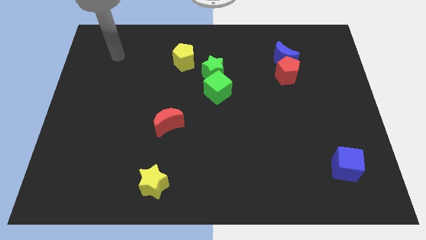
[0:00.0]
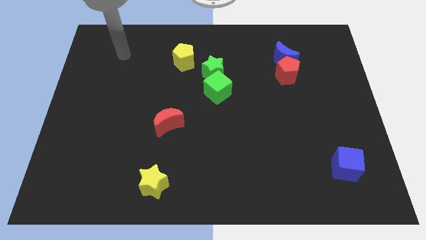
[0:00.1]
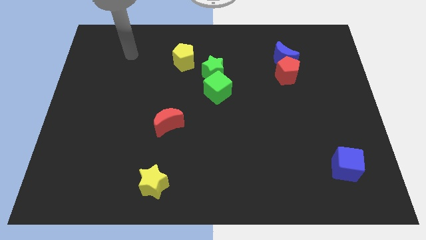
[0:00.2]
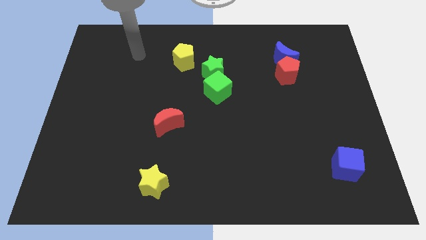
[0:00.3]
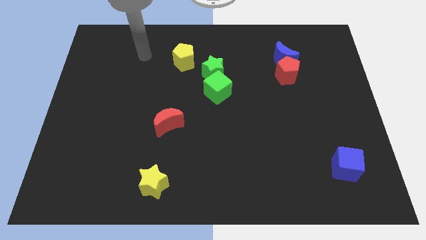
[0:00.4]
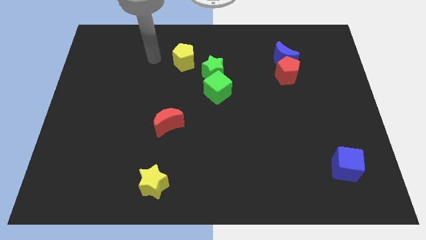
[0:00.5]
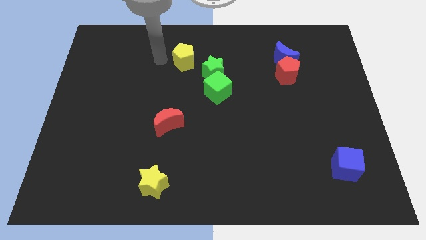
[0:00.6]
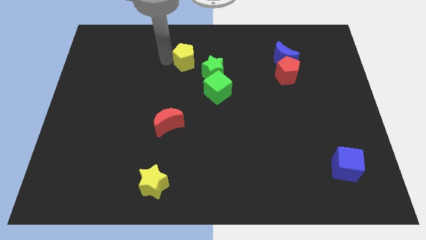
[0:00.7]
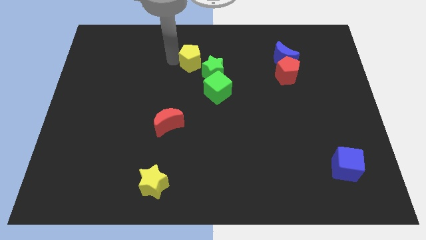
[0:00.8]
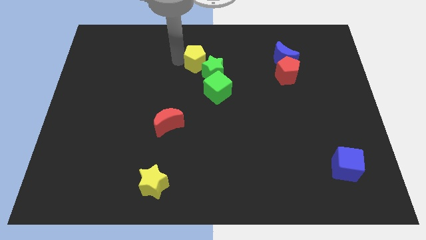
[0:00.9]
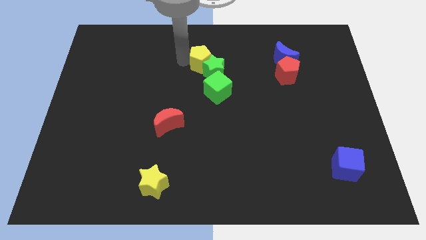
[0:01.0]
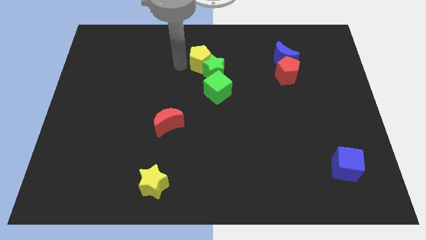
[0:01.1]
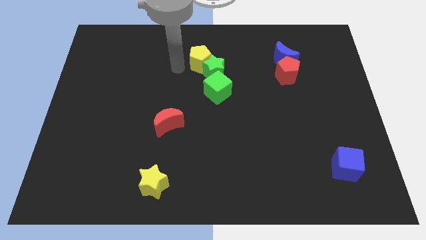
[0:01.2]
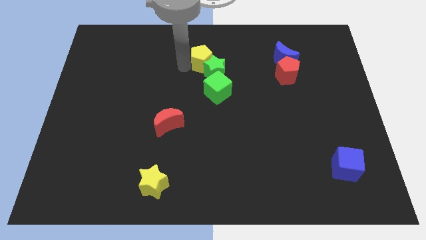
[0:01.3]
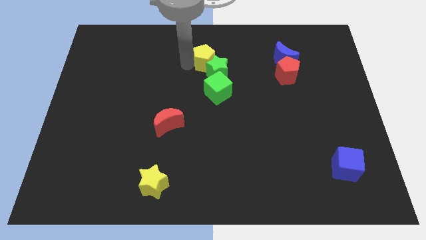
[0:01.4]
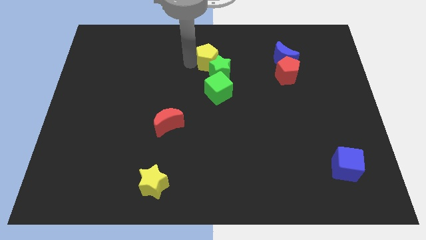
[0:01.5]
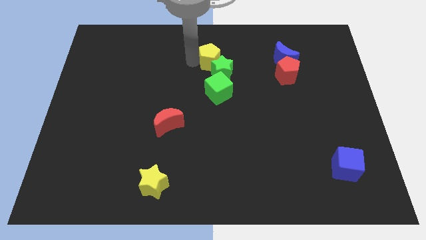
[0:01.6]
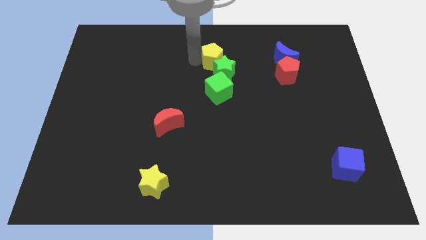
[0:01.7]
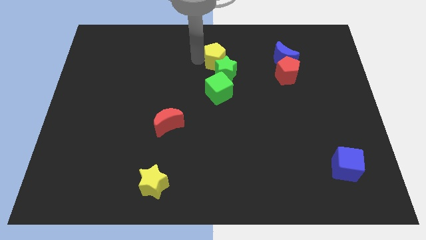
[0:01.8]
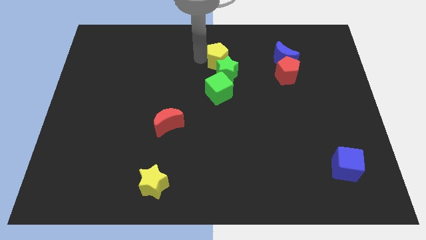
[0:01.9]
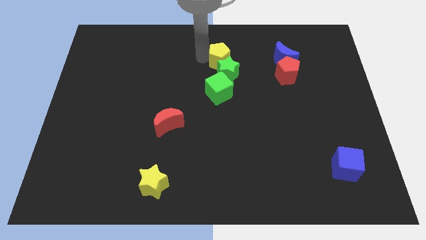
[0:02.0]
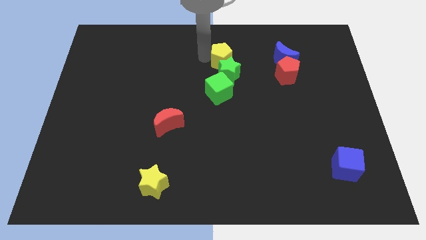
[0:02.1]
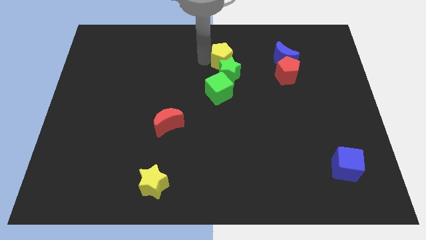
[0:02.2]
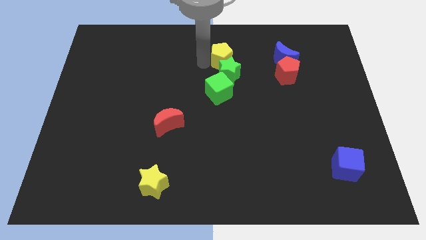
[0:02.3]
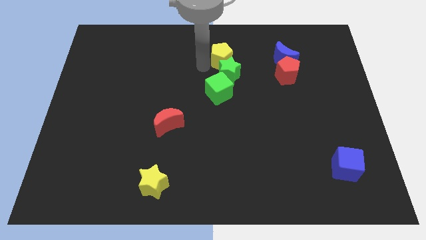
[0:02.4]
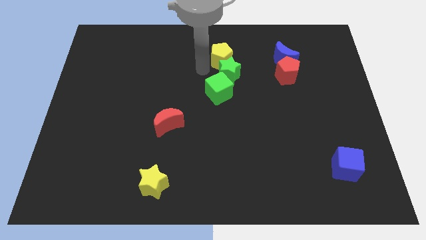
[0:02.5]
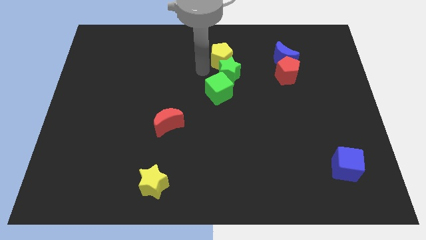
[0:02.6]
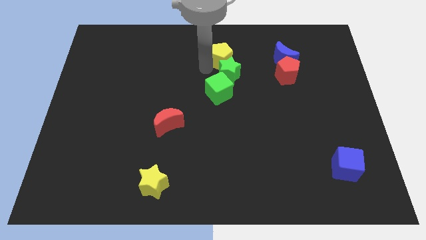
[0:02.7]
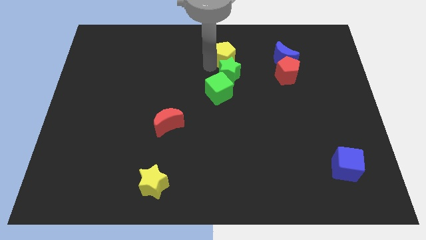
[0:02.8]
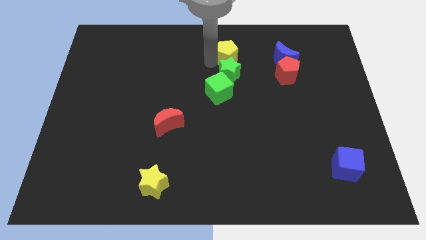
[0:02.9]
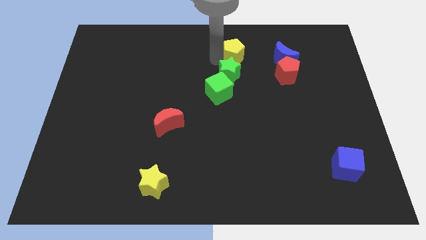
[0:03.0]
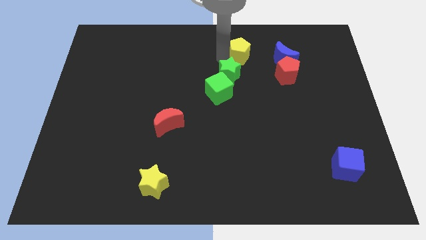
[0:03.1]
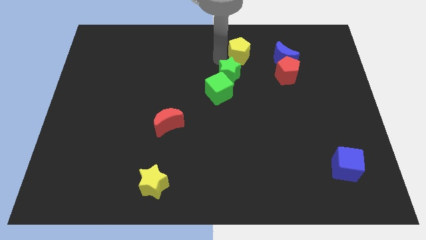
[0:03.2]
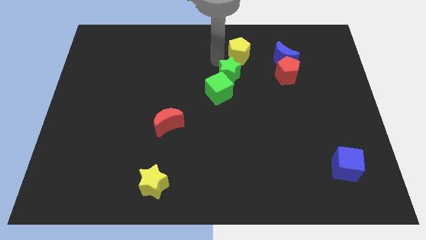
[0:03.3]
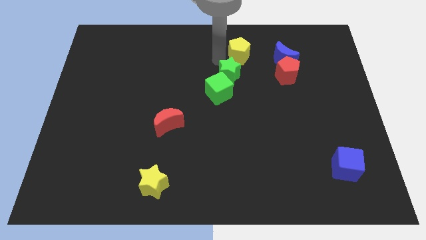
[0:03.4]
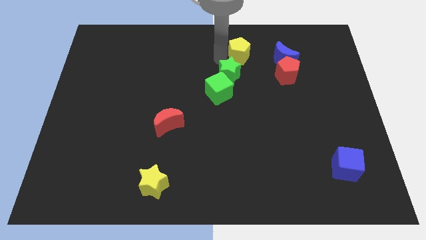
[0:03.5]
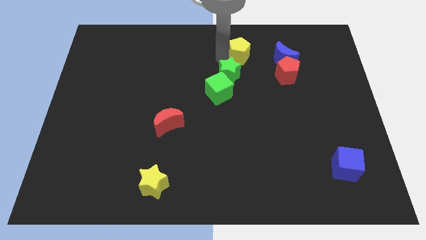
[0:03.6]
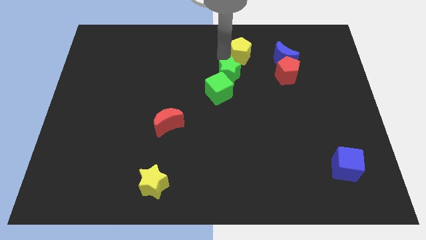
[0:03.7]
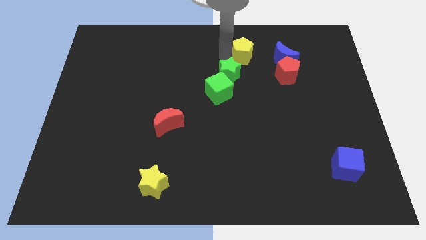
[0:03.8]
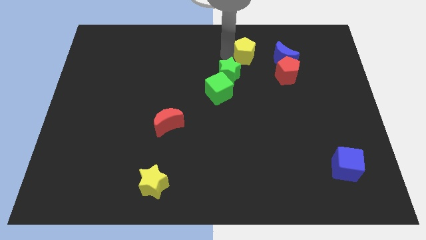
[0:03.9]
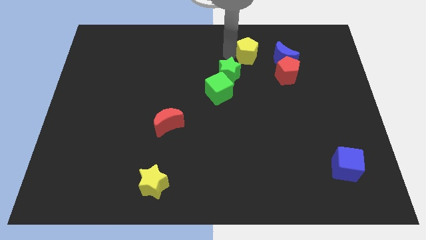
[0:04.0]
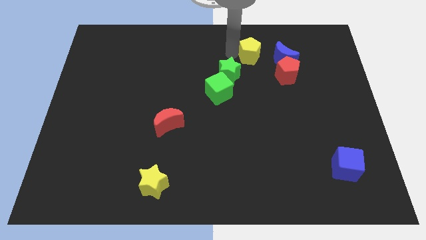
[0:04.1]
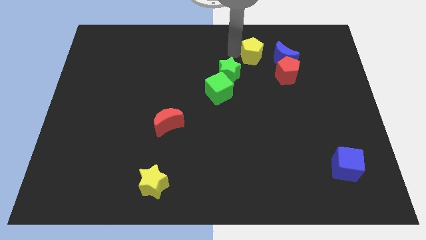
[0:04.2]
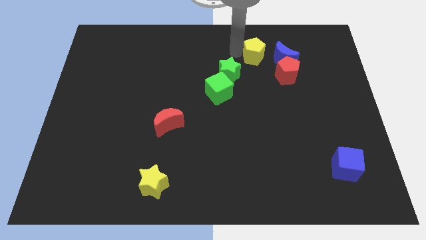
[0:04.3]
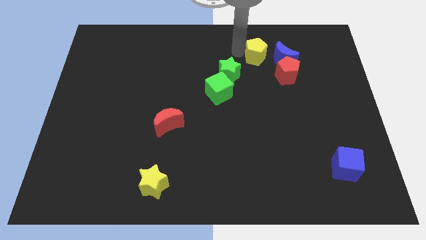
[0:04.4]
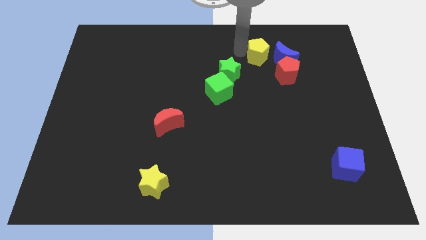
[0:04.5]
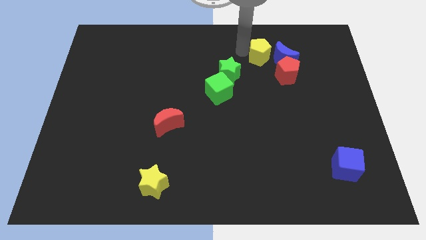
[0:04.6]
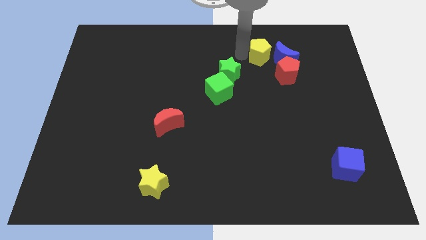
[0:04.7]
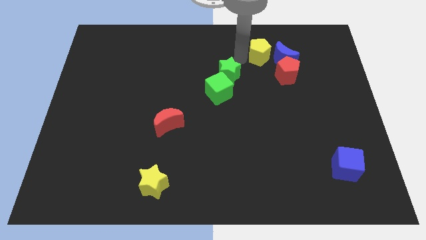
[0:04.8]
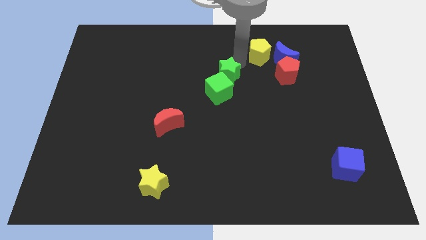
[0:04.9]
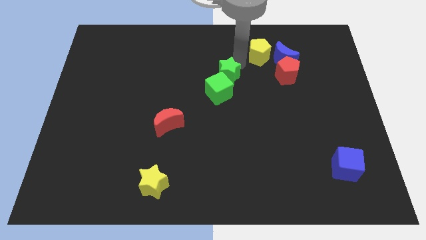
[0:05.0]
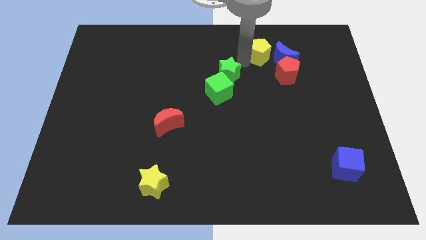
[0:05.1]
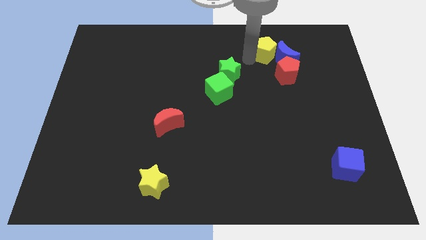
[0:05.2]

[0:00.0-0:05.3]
slide the yellow pentagon right

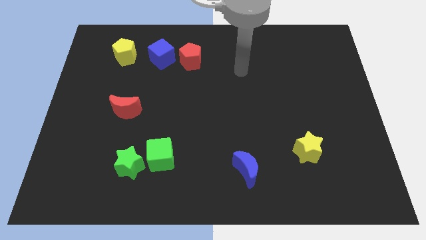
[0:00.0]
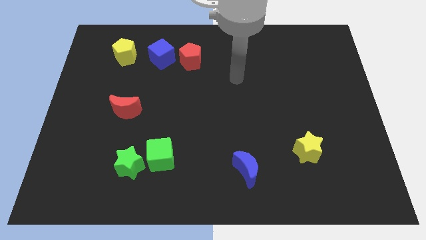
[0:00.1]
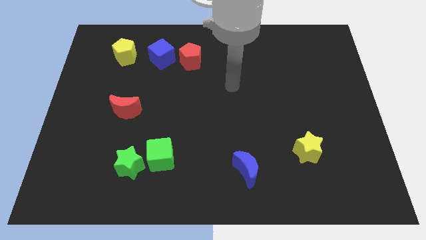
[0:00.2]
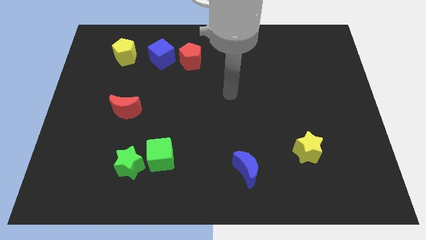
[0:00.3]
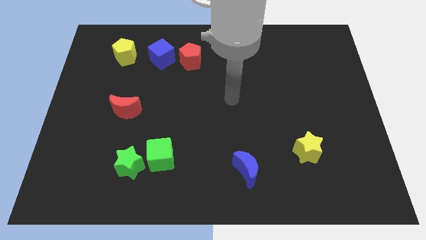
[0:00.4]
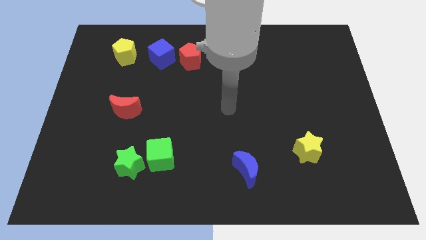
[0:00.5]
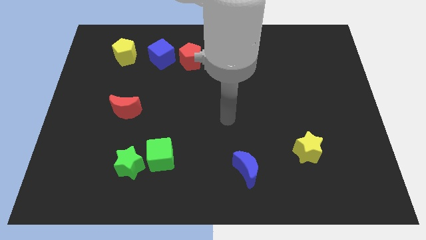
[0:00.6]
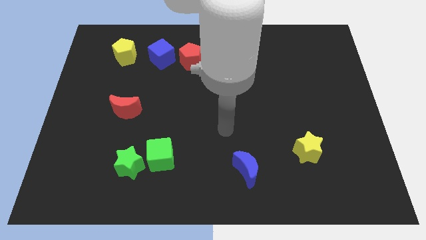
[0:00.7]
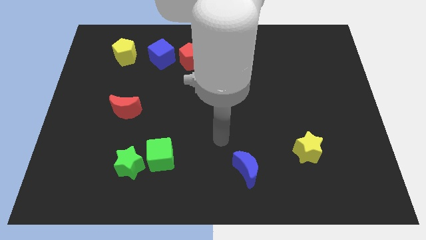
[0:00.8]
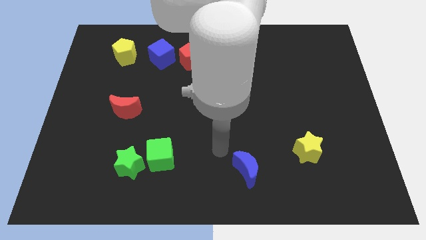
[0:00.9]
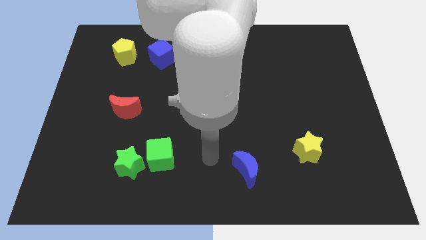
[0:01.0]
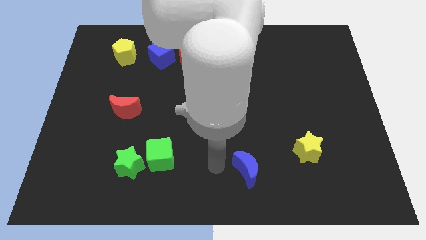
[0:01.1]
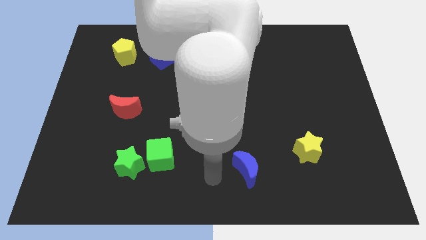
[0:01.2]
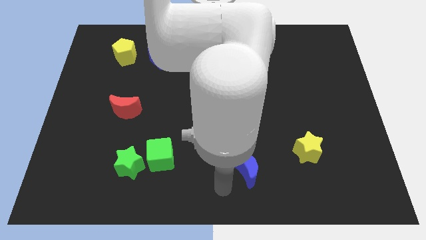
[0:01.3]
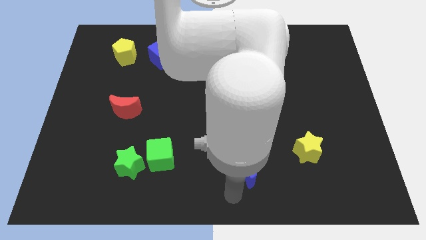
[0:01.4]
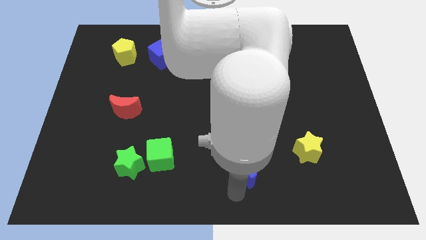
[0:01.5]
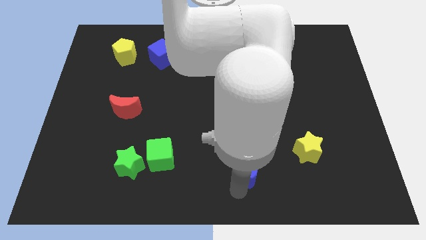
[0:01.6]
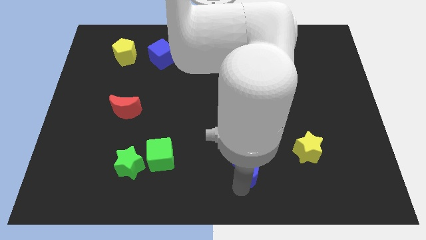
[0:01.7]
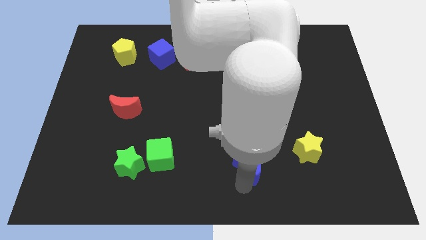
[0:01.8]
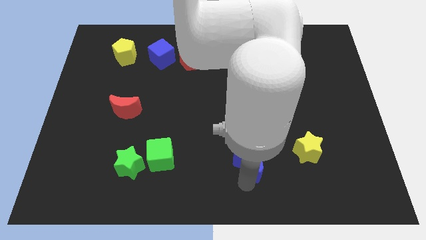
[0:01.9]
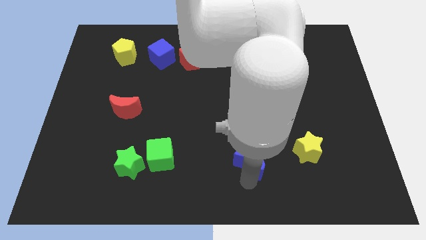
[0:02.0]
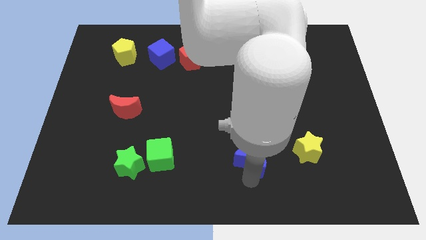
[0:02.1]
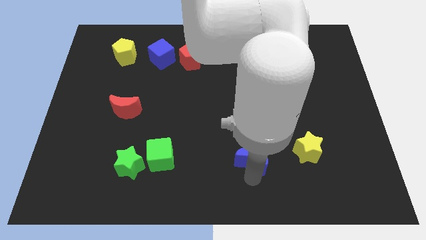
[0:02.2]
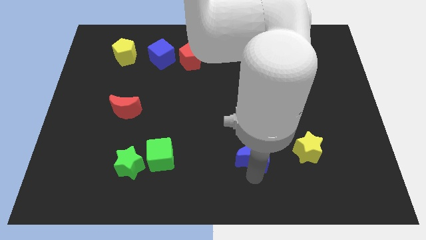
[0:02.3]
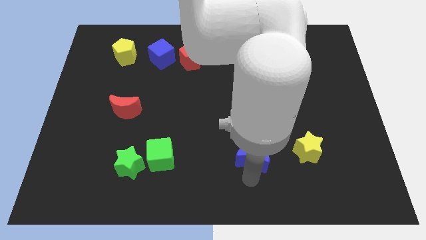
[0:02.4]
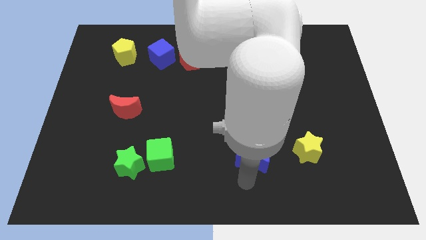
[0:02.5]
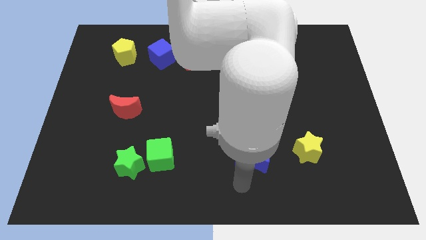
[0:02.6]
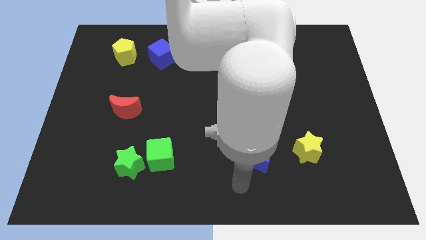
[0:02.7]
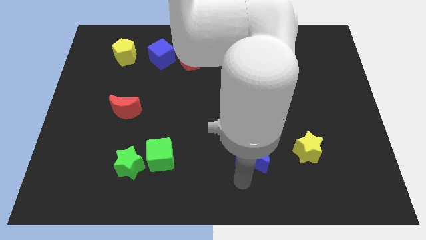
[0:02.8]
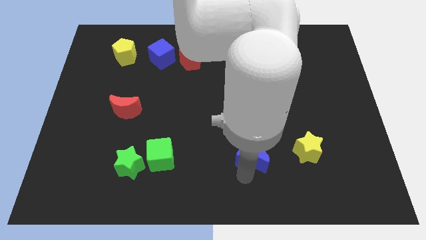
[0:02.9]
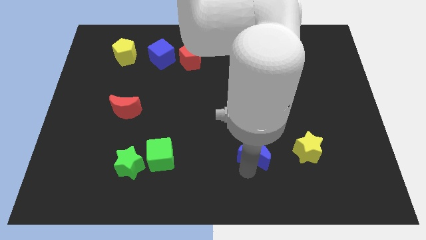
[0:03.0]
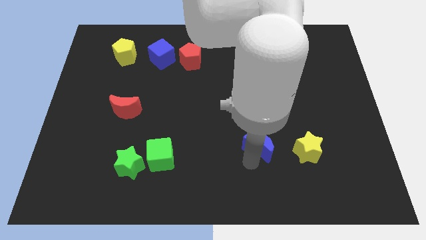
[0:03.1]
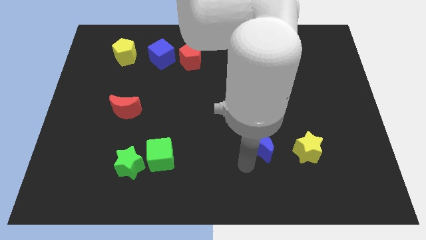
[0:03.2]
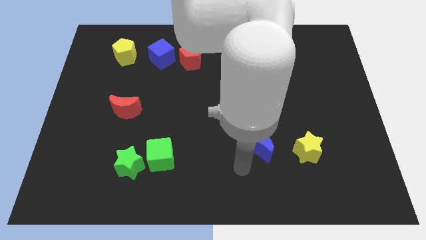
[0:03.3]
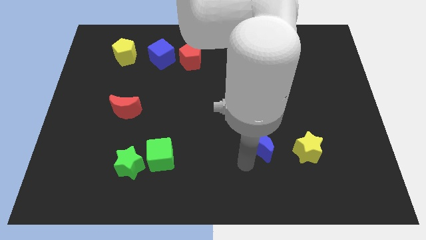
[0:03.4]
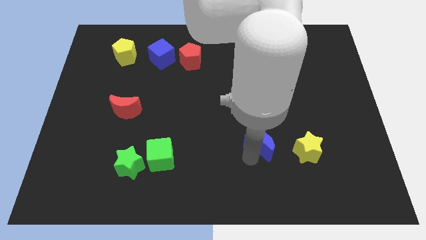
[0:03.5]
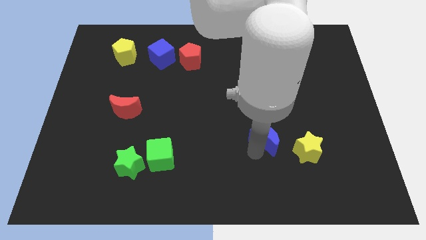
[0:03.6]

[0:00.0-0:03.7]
slide the blue moon diagonally upwards and right slightly
